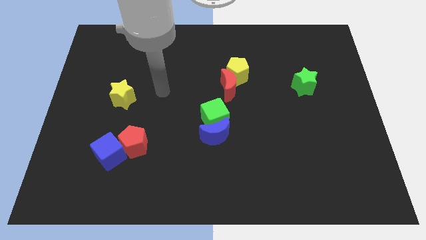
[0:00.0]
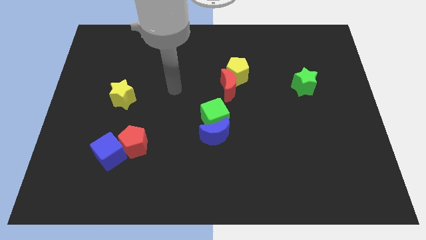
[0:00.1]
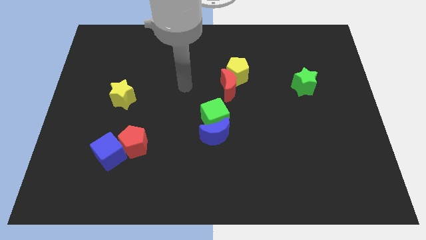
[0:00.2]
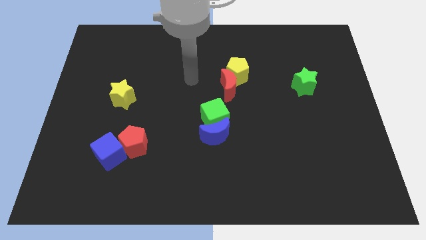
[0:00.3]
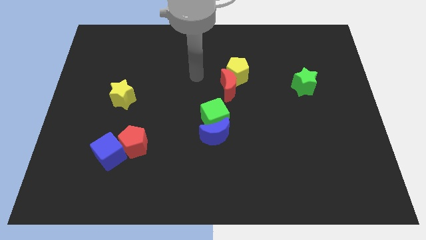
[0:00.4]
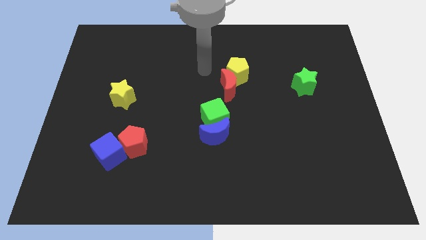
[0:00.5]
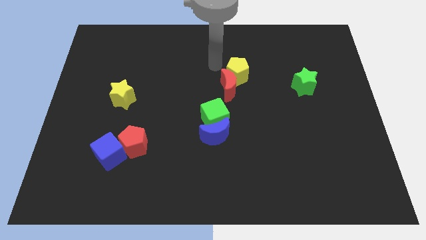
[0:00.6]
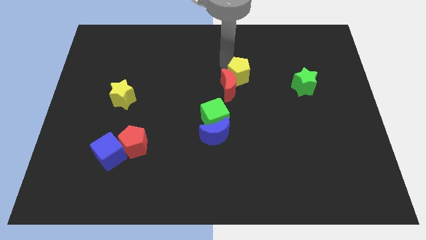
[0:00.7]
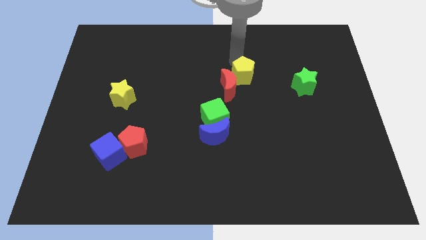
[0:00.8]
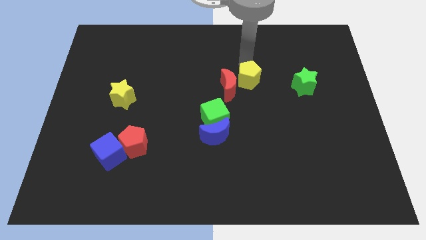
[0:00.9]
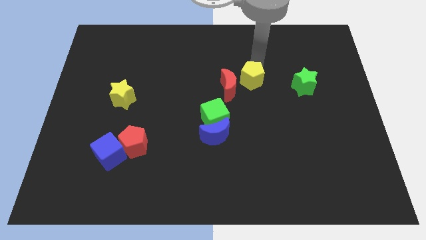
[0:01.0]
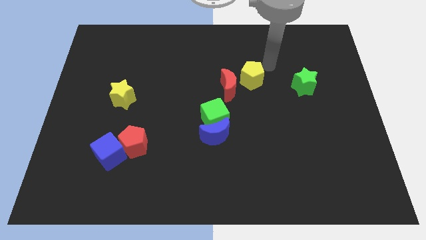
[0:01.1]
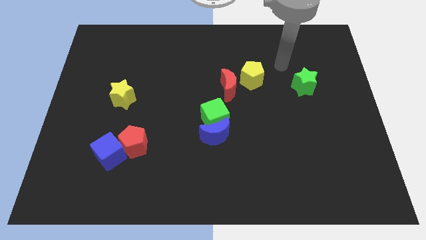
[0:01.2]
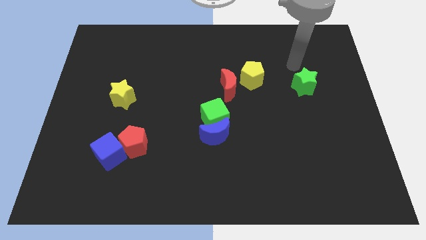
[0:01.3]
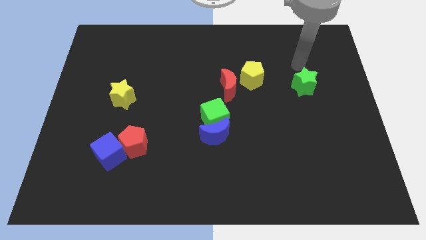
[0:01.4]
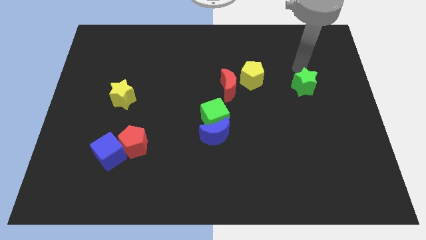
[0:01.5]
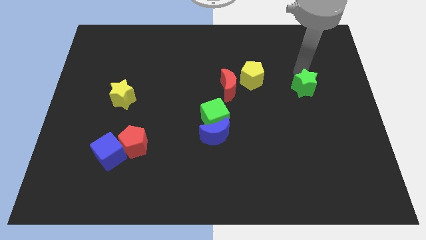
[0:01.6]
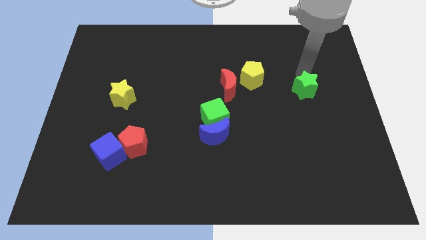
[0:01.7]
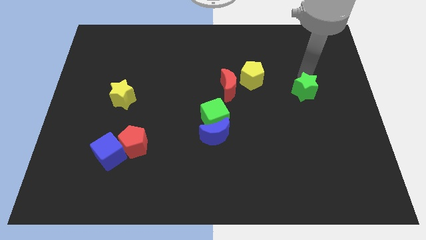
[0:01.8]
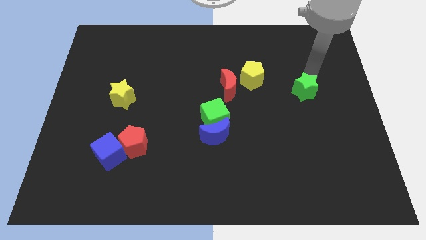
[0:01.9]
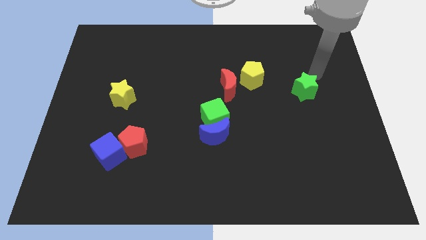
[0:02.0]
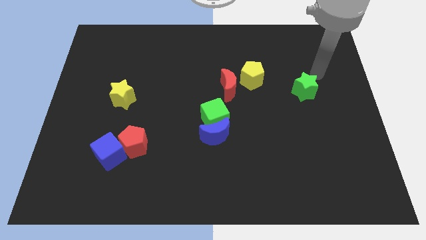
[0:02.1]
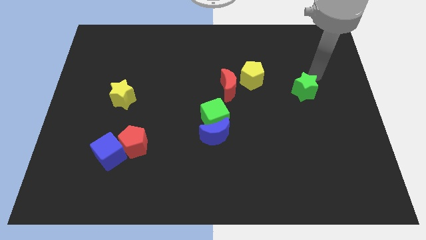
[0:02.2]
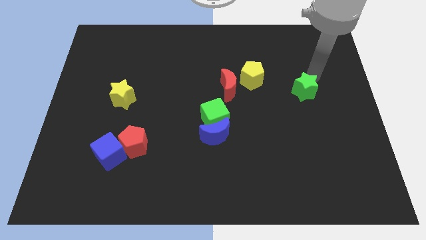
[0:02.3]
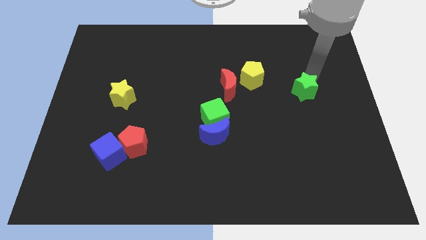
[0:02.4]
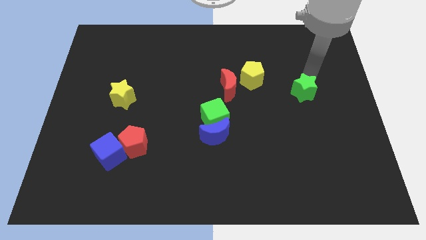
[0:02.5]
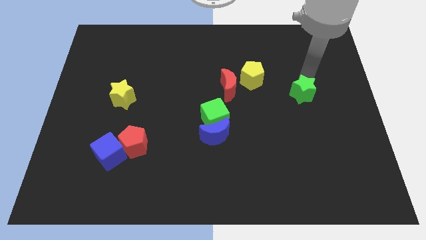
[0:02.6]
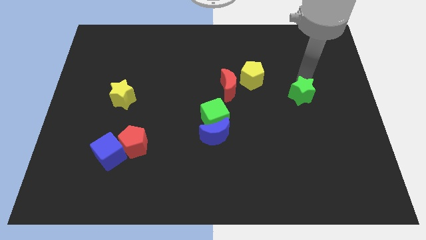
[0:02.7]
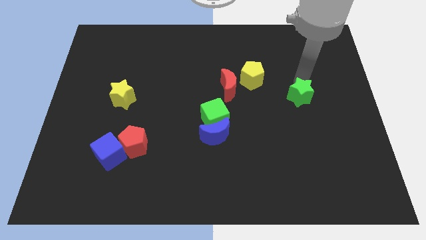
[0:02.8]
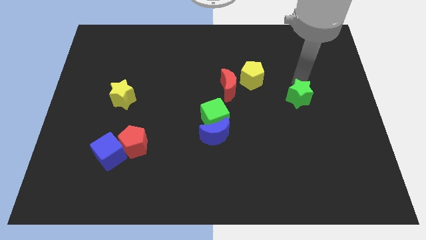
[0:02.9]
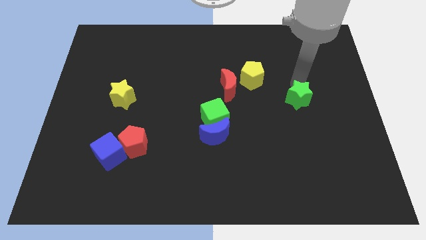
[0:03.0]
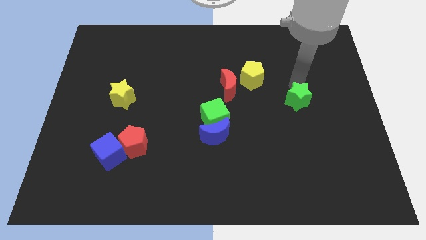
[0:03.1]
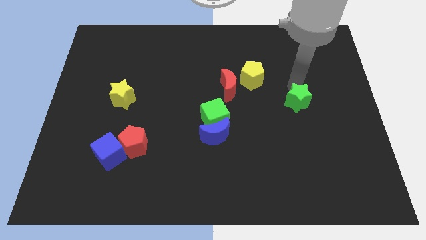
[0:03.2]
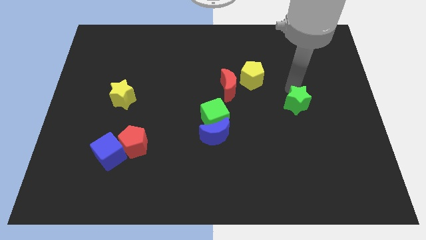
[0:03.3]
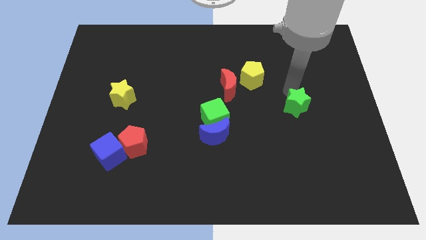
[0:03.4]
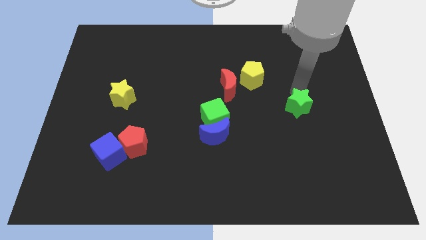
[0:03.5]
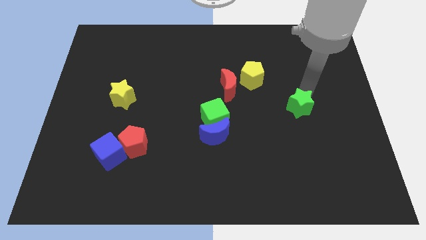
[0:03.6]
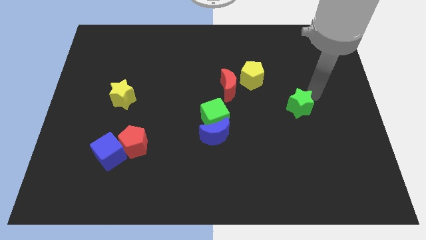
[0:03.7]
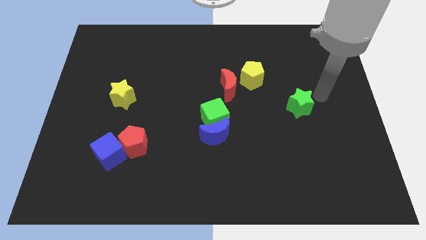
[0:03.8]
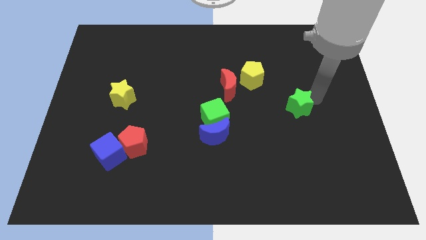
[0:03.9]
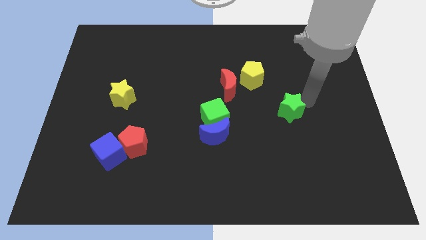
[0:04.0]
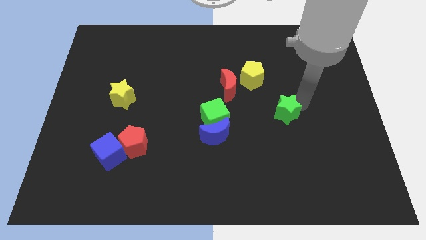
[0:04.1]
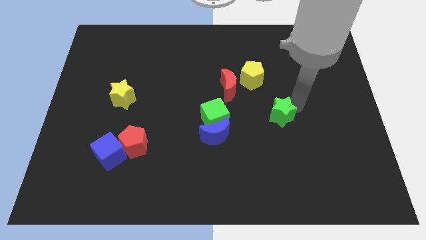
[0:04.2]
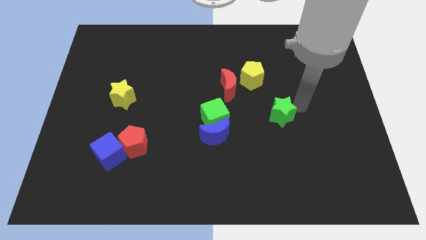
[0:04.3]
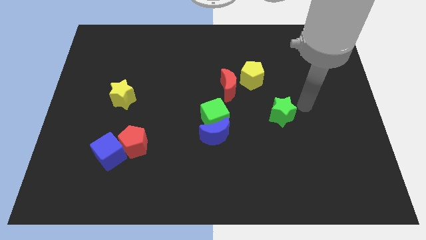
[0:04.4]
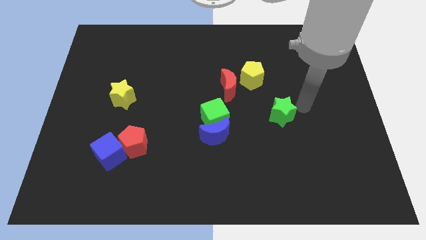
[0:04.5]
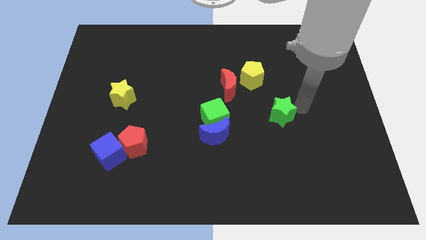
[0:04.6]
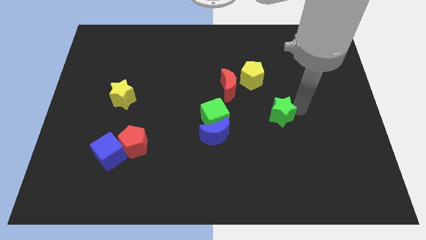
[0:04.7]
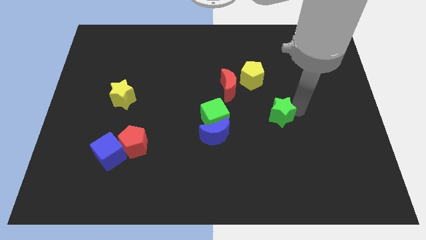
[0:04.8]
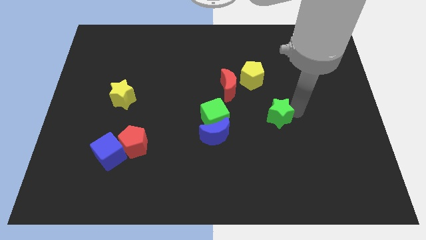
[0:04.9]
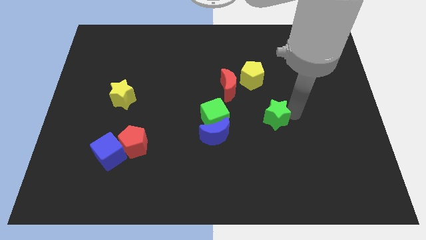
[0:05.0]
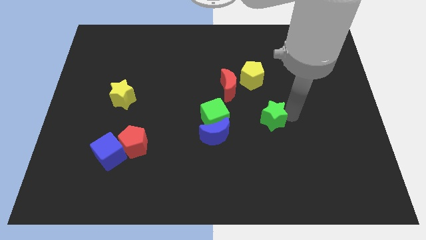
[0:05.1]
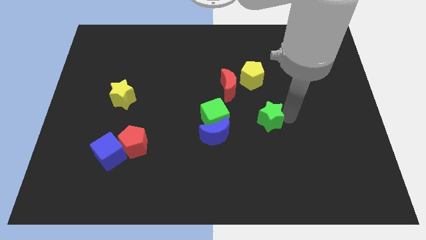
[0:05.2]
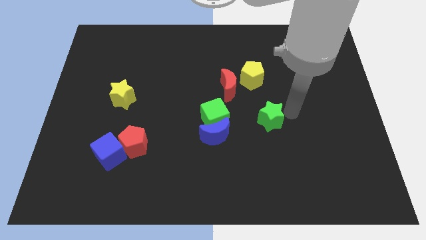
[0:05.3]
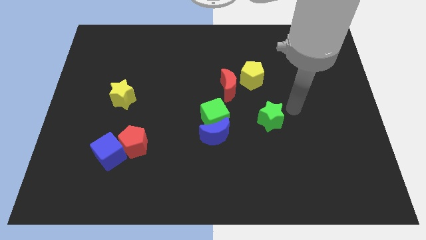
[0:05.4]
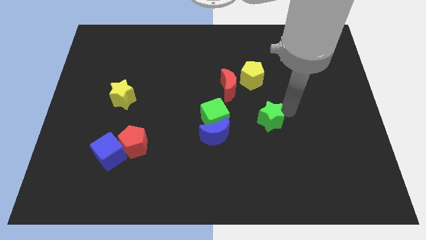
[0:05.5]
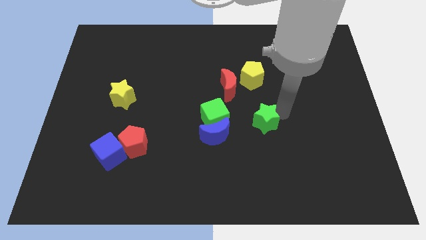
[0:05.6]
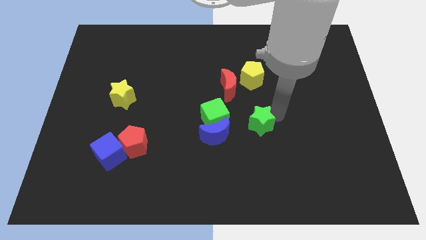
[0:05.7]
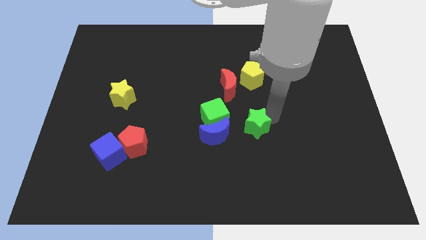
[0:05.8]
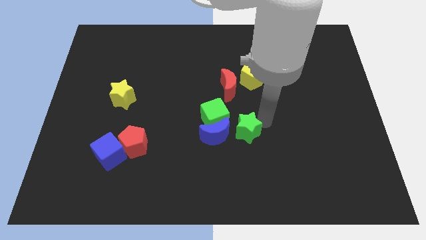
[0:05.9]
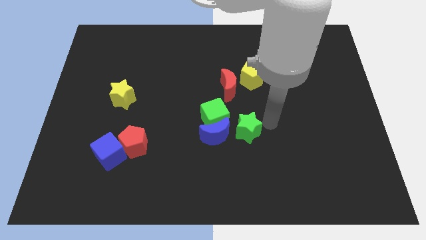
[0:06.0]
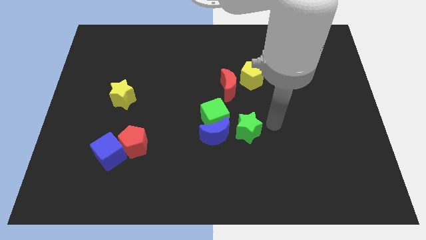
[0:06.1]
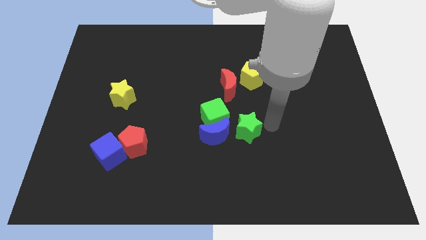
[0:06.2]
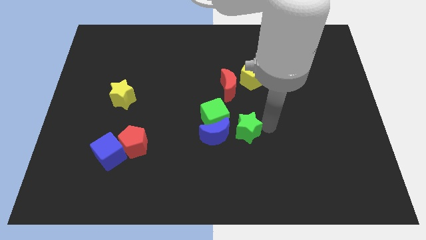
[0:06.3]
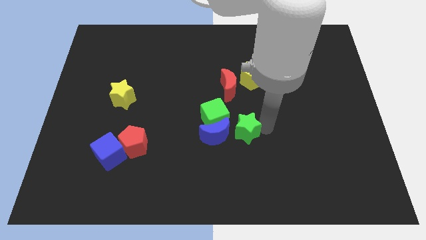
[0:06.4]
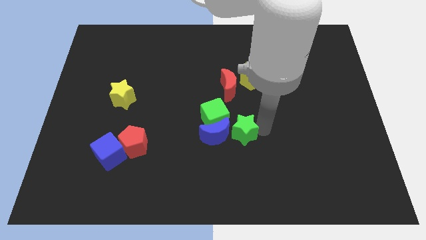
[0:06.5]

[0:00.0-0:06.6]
move the green star to the blue moon

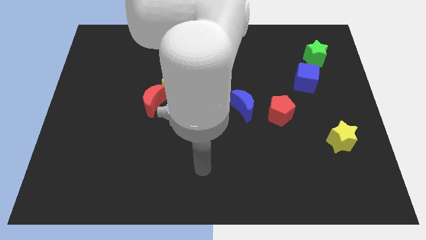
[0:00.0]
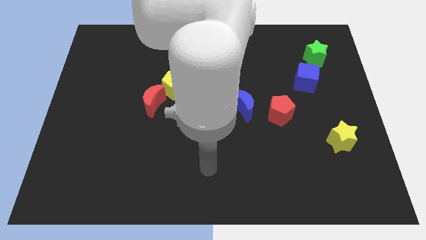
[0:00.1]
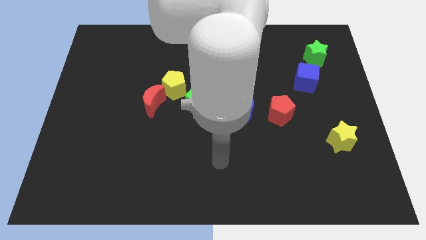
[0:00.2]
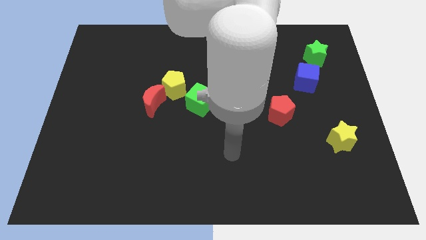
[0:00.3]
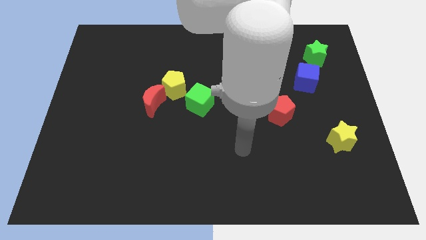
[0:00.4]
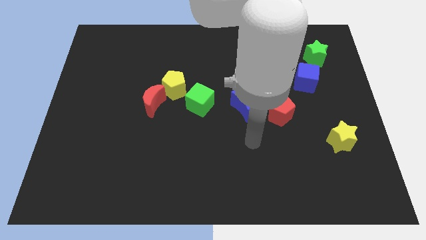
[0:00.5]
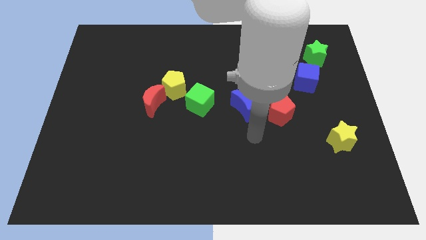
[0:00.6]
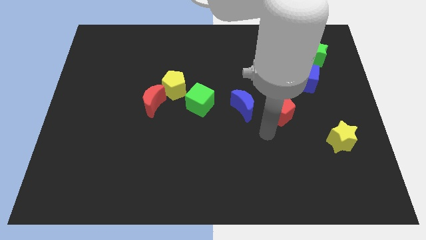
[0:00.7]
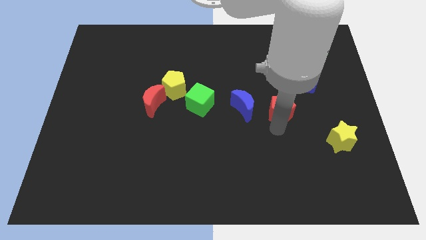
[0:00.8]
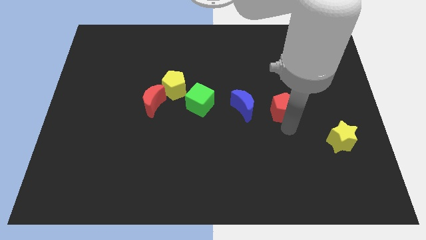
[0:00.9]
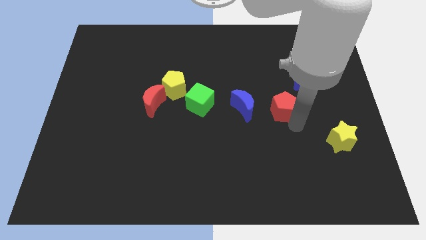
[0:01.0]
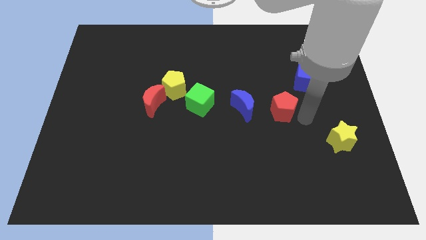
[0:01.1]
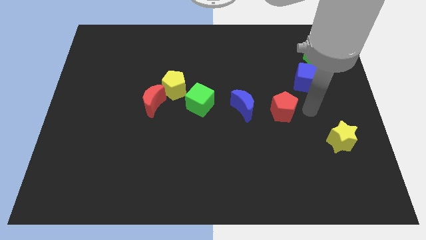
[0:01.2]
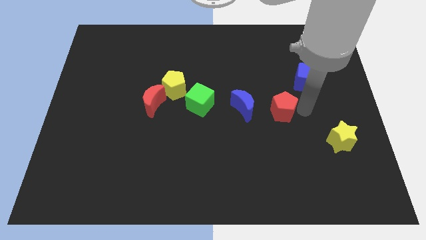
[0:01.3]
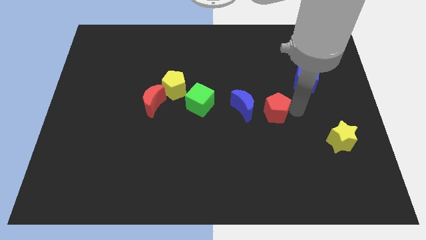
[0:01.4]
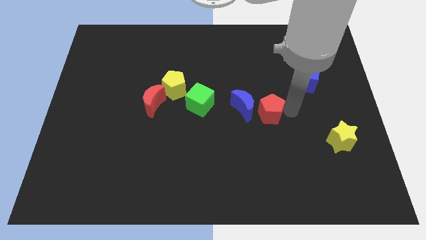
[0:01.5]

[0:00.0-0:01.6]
put the red pentagon towards the blue moon
